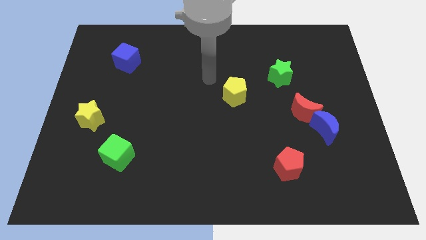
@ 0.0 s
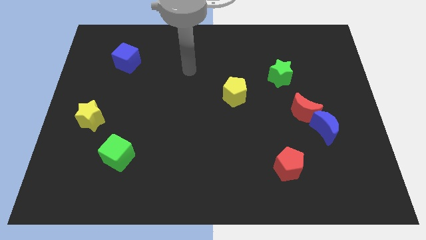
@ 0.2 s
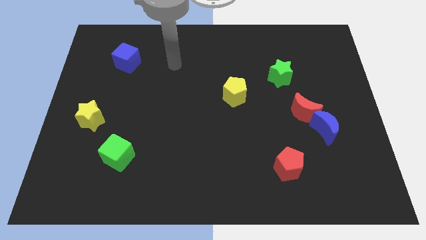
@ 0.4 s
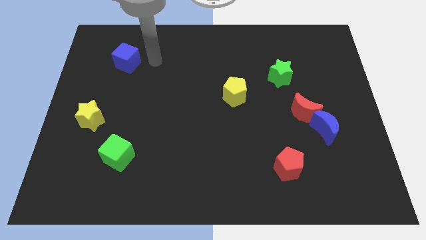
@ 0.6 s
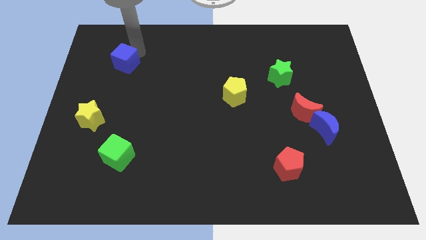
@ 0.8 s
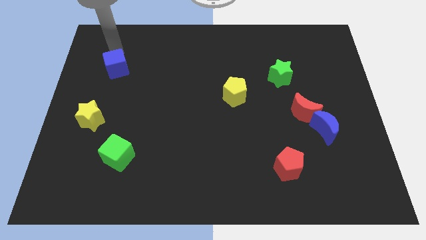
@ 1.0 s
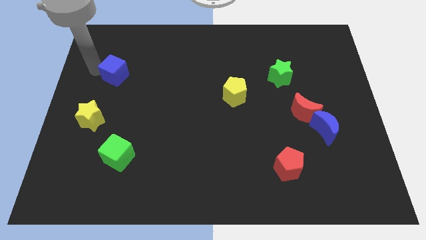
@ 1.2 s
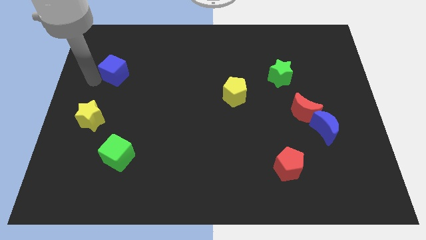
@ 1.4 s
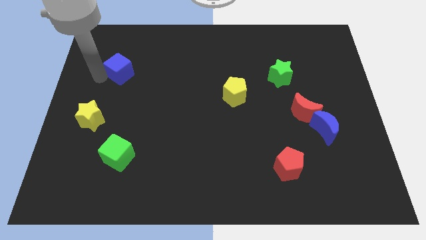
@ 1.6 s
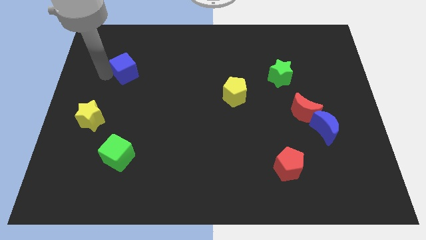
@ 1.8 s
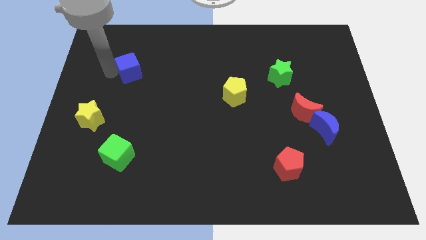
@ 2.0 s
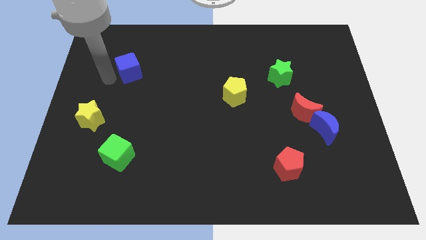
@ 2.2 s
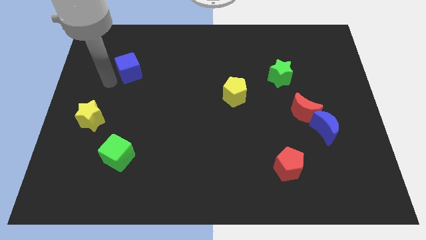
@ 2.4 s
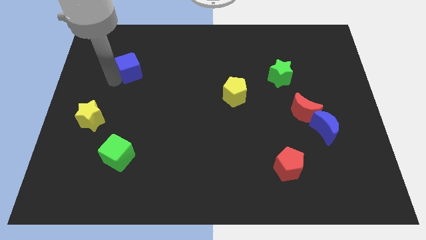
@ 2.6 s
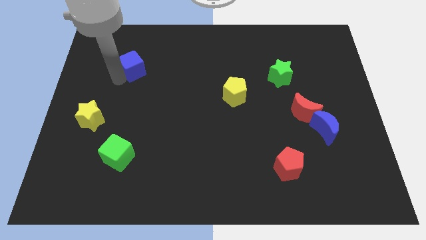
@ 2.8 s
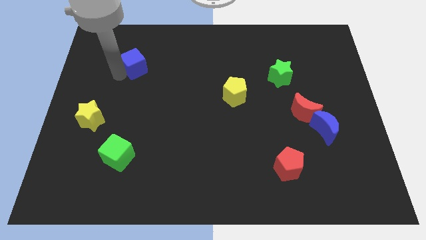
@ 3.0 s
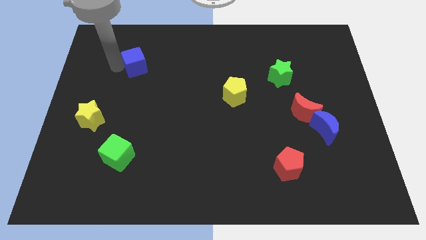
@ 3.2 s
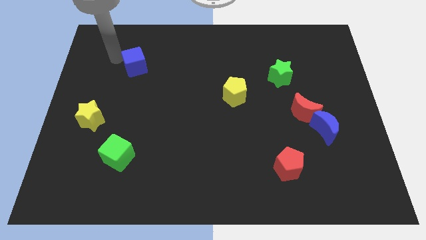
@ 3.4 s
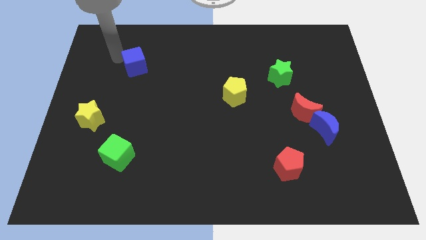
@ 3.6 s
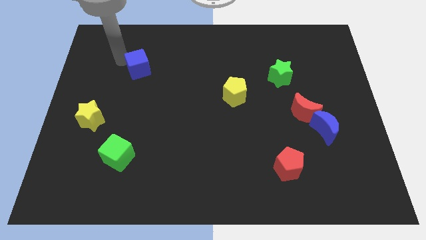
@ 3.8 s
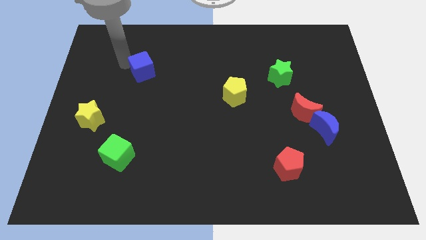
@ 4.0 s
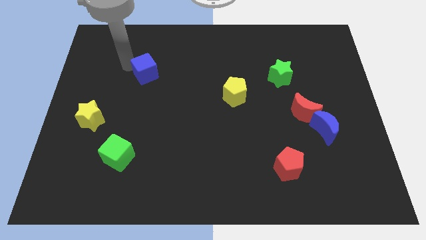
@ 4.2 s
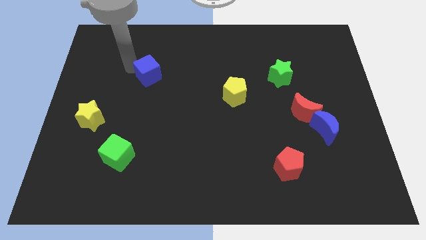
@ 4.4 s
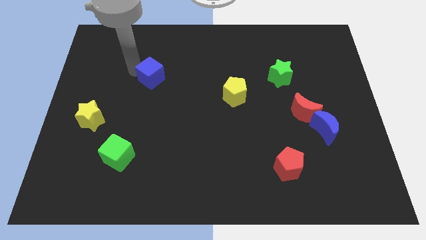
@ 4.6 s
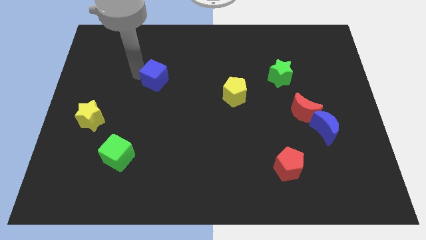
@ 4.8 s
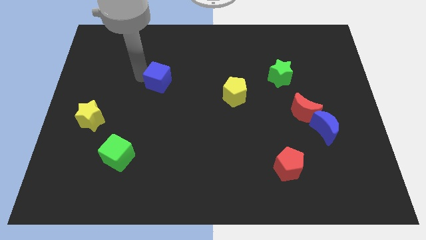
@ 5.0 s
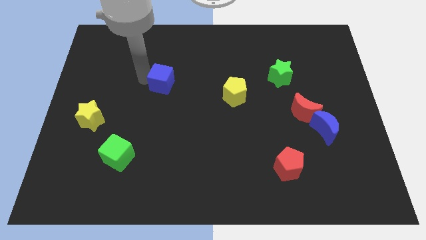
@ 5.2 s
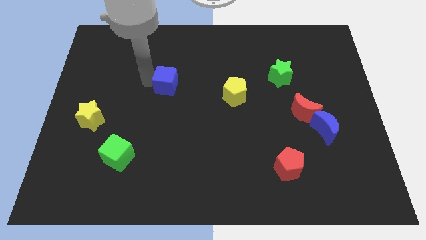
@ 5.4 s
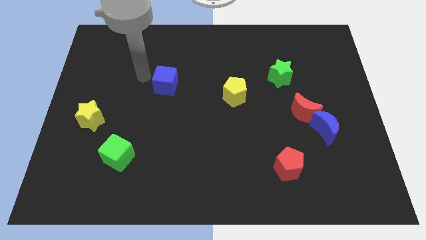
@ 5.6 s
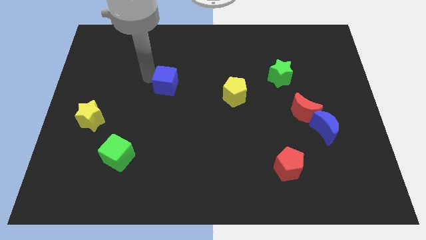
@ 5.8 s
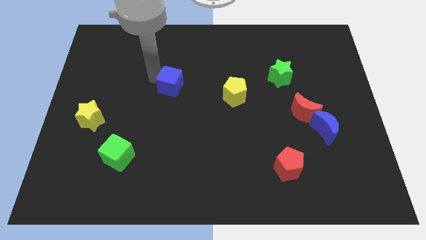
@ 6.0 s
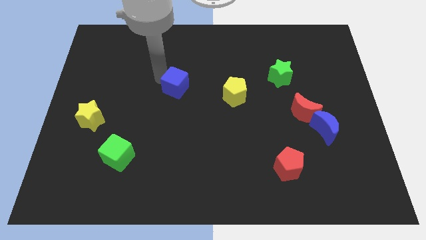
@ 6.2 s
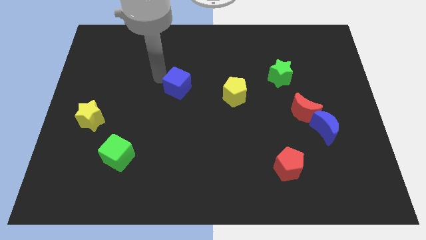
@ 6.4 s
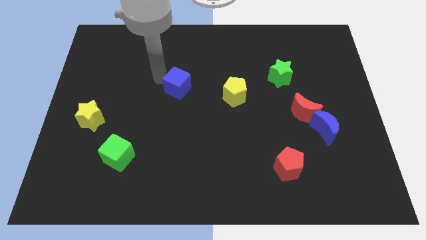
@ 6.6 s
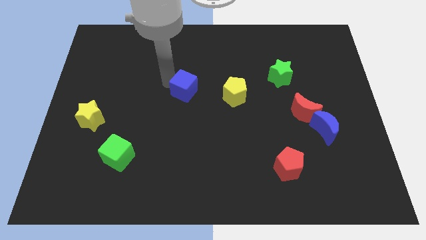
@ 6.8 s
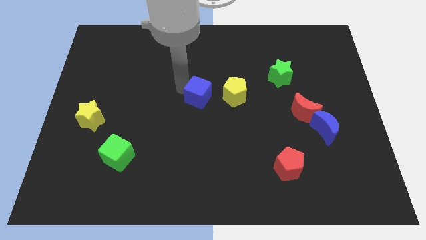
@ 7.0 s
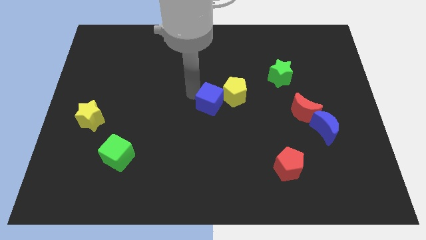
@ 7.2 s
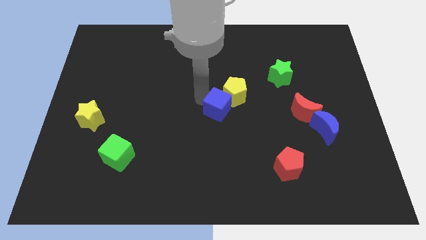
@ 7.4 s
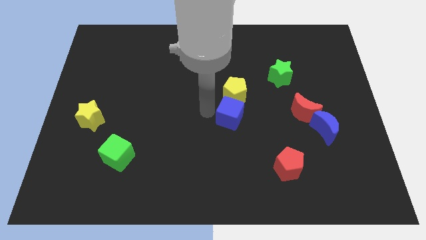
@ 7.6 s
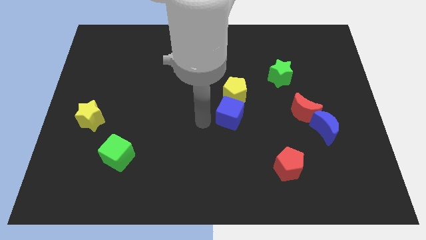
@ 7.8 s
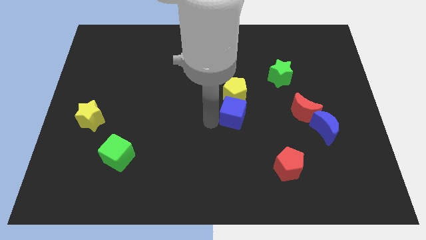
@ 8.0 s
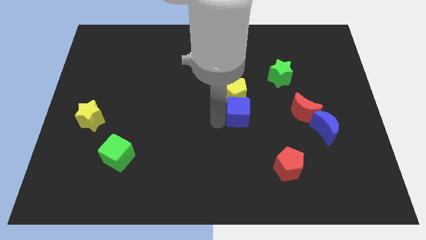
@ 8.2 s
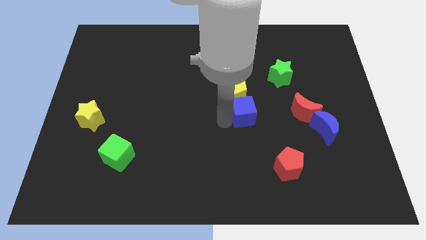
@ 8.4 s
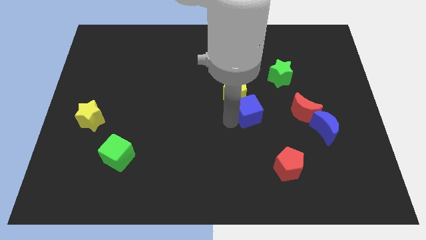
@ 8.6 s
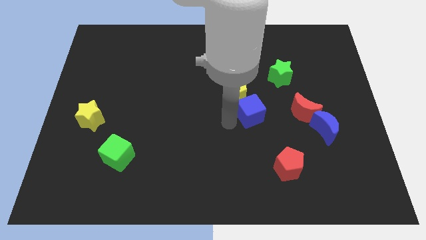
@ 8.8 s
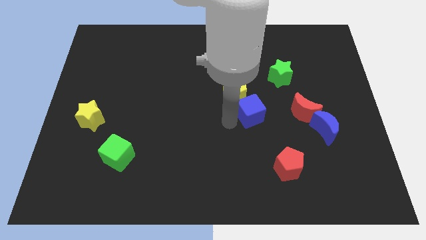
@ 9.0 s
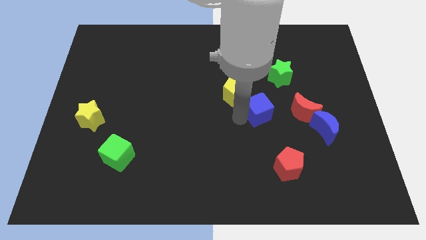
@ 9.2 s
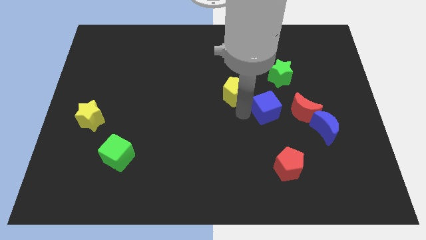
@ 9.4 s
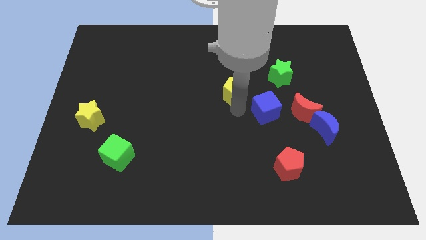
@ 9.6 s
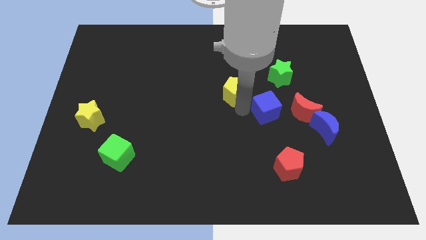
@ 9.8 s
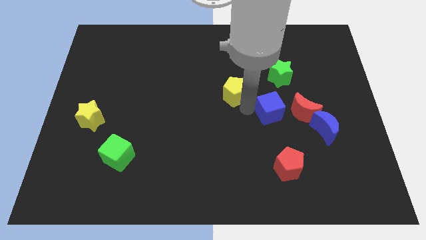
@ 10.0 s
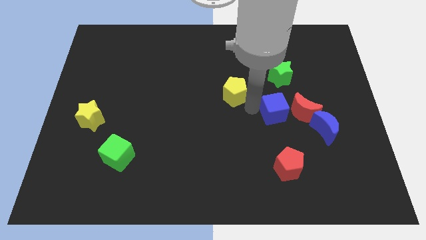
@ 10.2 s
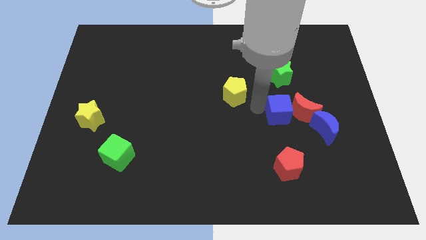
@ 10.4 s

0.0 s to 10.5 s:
slide the blue cube to the red moon

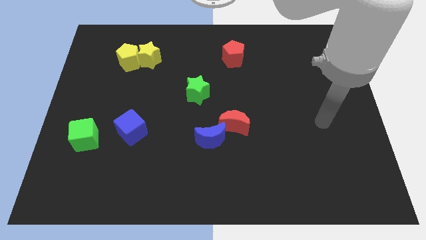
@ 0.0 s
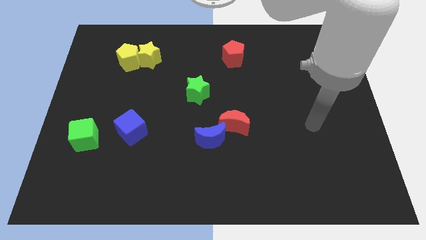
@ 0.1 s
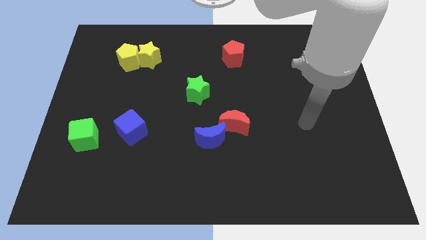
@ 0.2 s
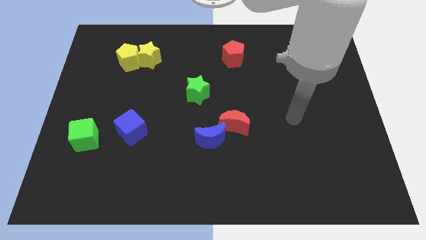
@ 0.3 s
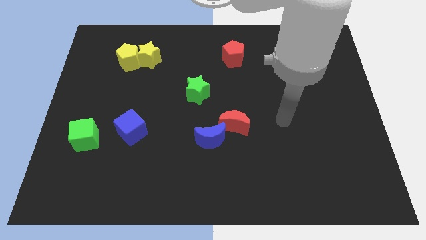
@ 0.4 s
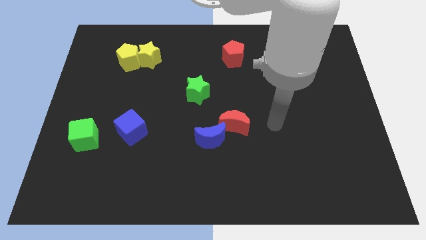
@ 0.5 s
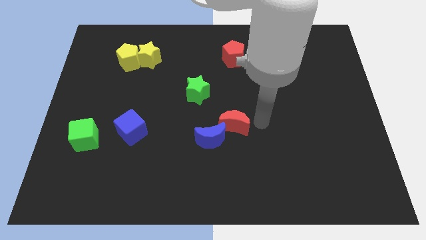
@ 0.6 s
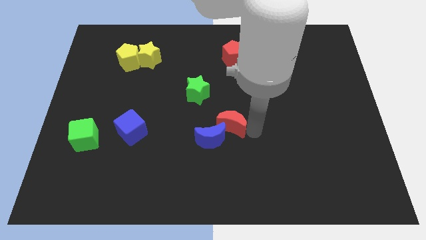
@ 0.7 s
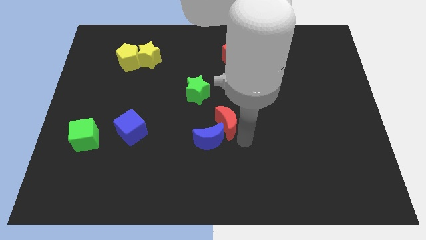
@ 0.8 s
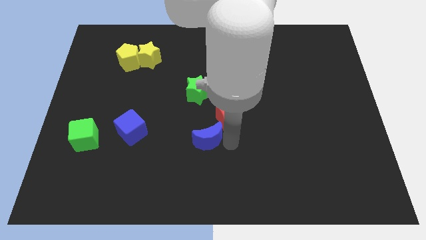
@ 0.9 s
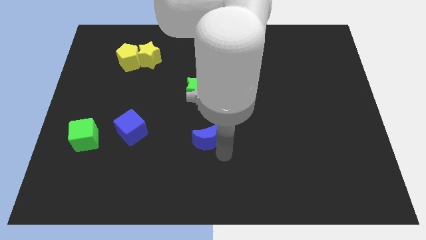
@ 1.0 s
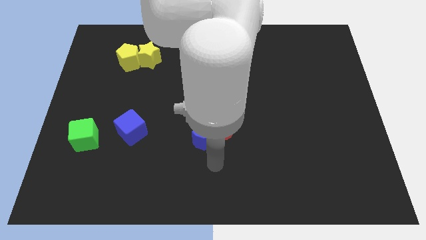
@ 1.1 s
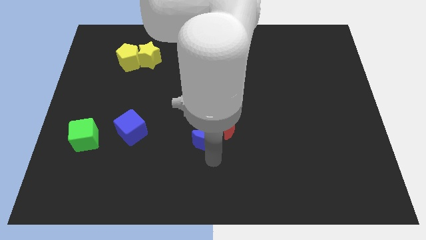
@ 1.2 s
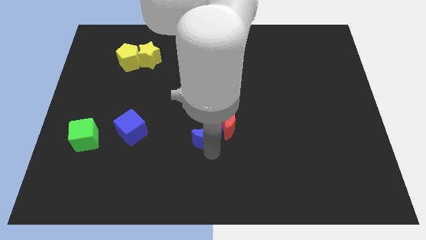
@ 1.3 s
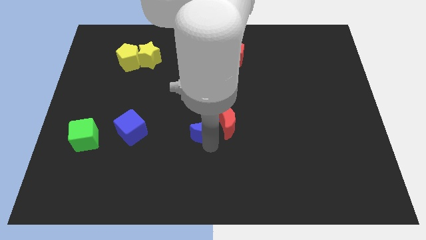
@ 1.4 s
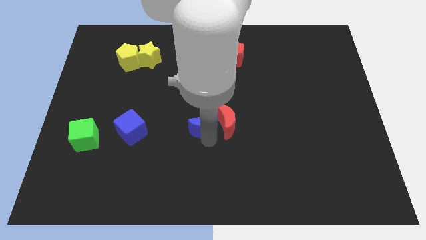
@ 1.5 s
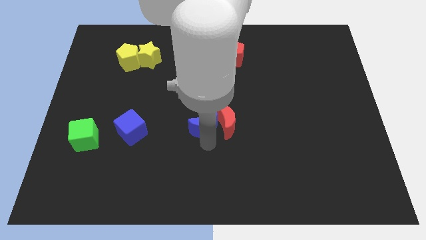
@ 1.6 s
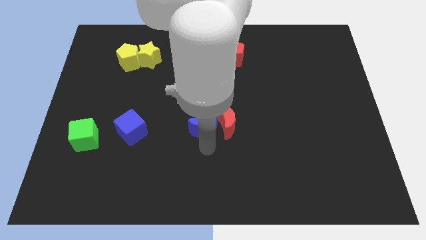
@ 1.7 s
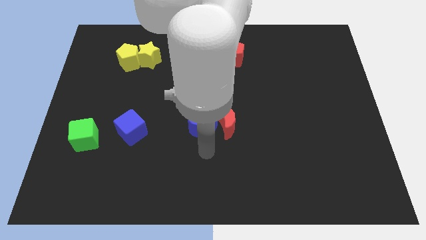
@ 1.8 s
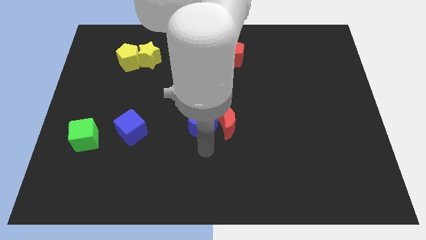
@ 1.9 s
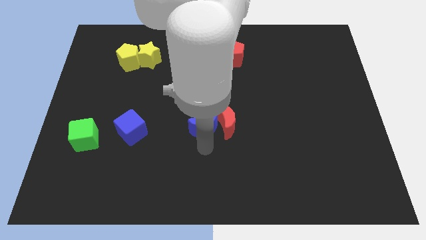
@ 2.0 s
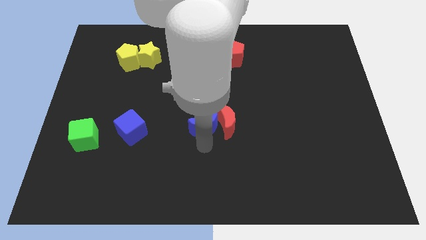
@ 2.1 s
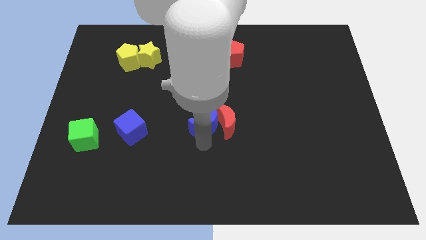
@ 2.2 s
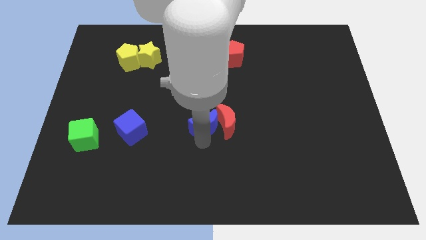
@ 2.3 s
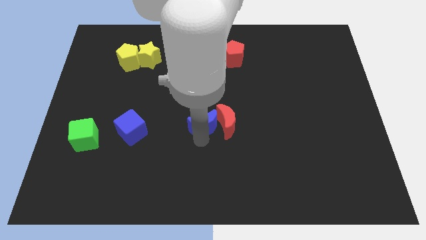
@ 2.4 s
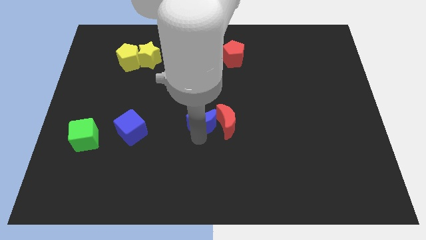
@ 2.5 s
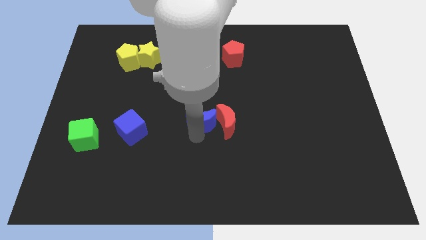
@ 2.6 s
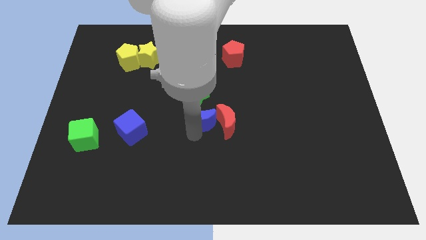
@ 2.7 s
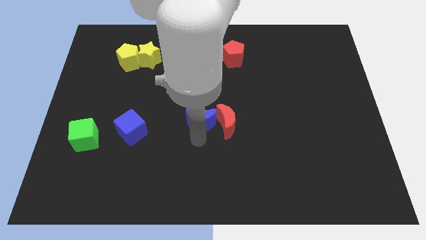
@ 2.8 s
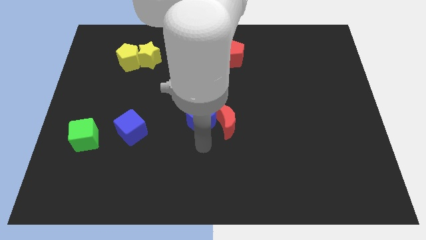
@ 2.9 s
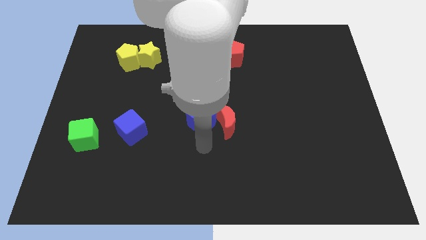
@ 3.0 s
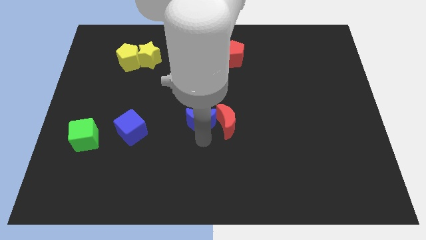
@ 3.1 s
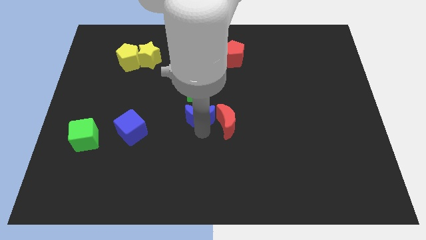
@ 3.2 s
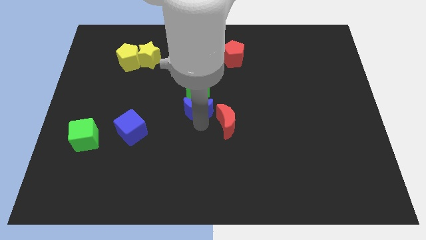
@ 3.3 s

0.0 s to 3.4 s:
move the blue moon towards the green star
